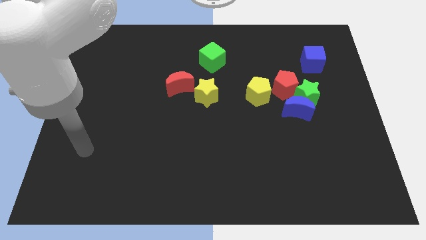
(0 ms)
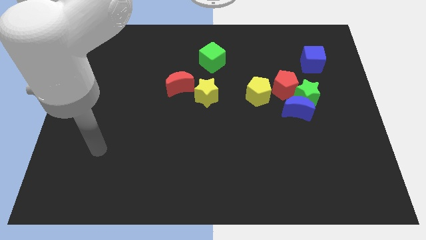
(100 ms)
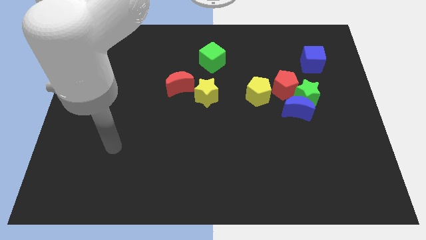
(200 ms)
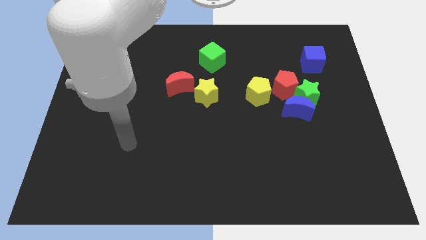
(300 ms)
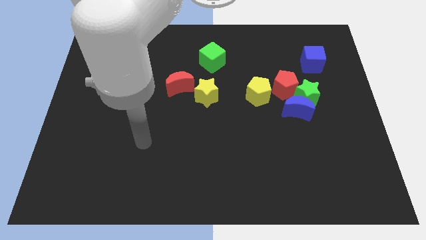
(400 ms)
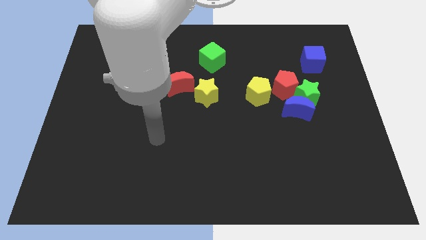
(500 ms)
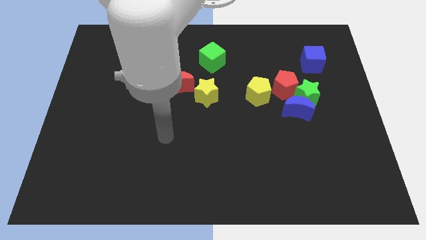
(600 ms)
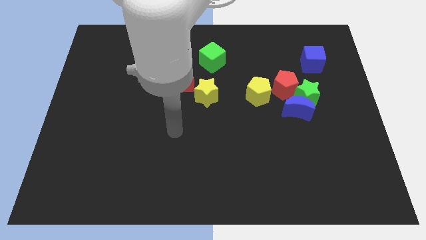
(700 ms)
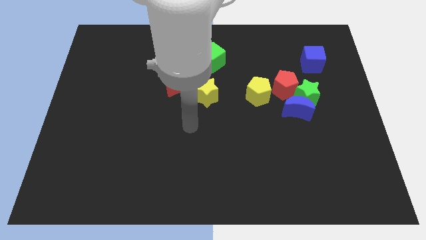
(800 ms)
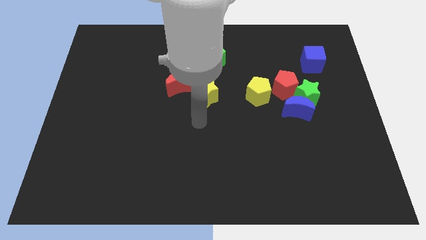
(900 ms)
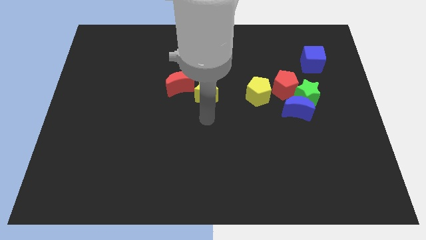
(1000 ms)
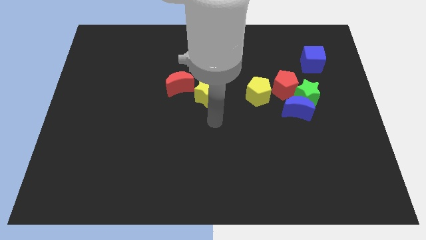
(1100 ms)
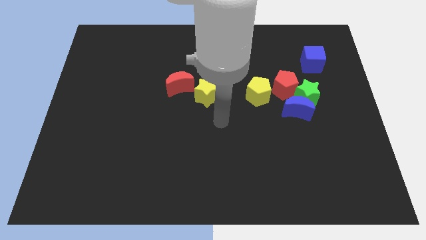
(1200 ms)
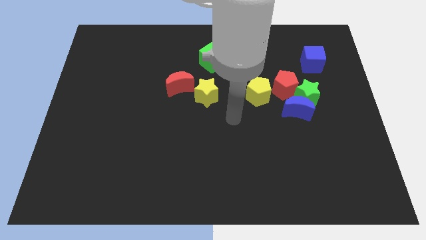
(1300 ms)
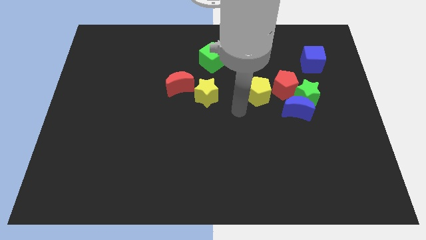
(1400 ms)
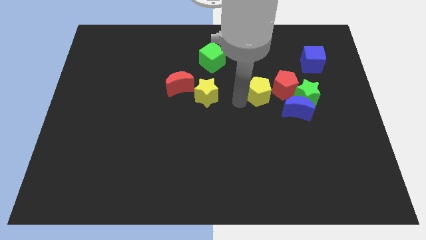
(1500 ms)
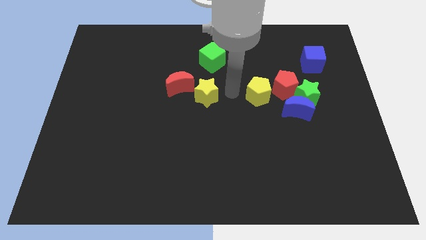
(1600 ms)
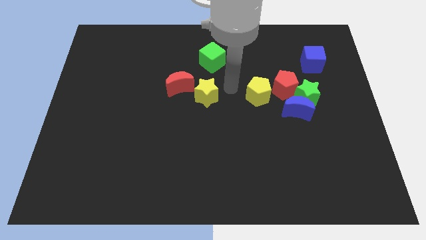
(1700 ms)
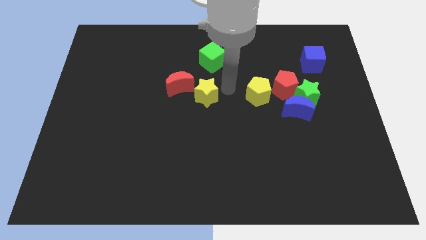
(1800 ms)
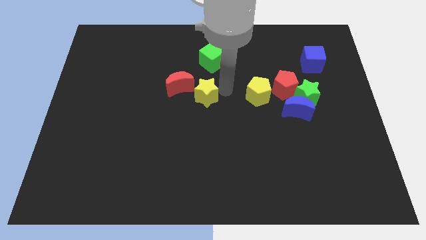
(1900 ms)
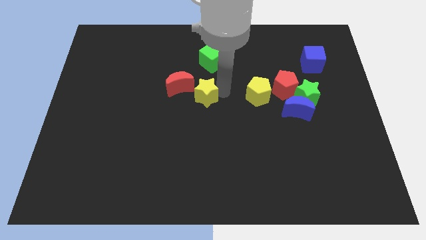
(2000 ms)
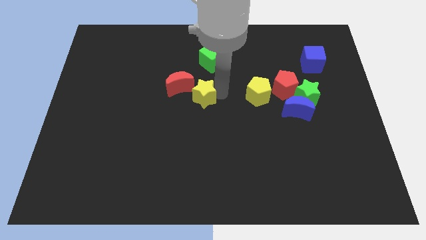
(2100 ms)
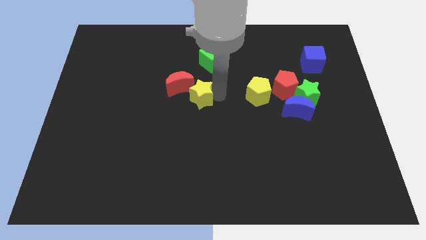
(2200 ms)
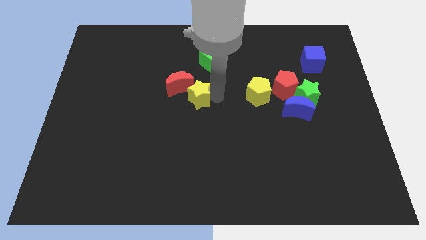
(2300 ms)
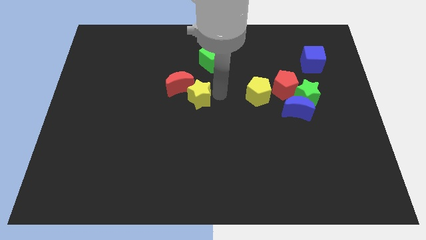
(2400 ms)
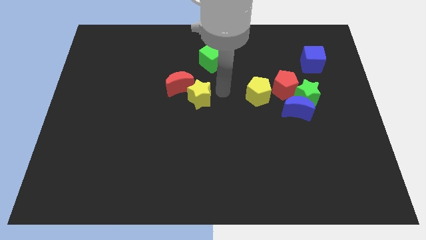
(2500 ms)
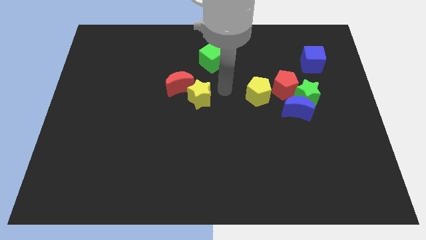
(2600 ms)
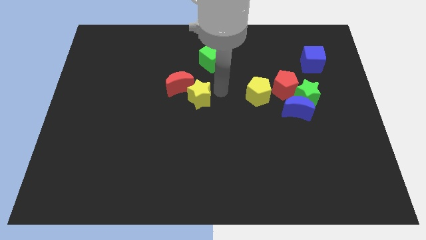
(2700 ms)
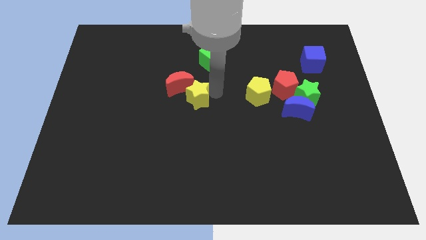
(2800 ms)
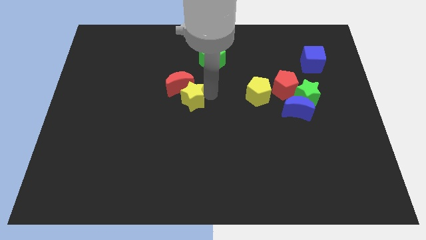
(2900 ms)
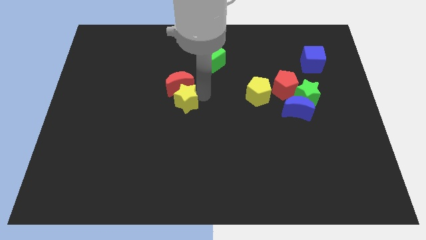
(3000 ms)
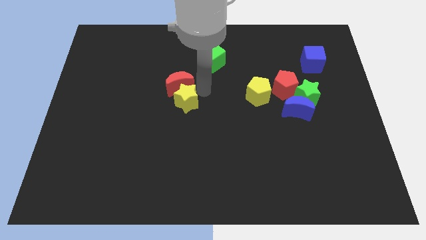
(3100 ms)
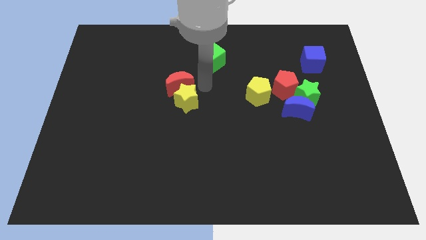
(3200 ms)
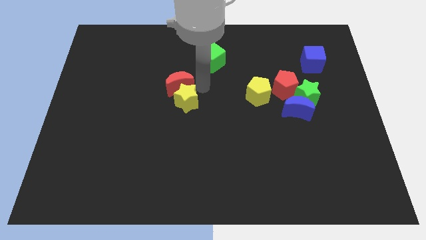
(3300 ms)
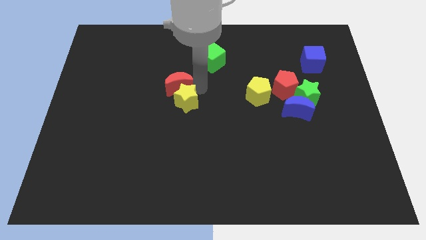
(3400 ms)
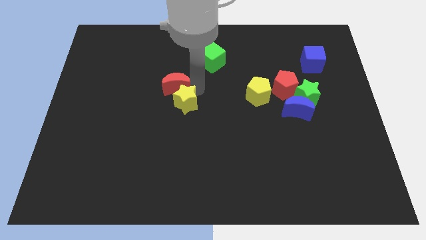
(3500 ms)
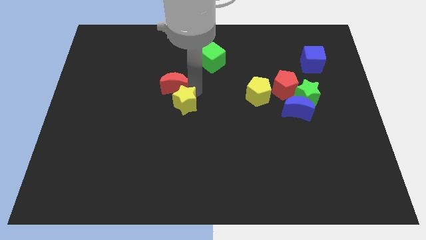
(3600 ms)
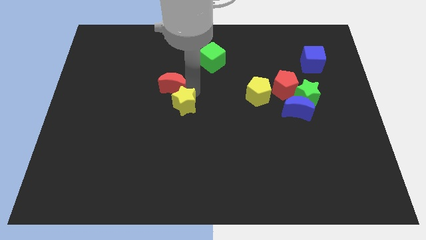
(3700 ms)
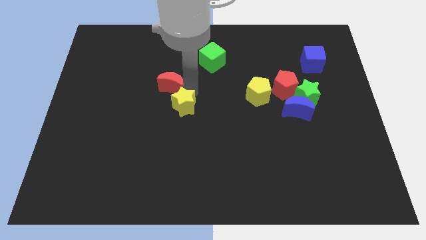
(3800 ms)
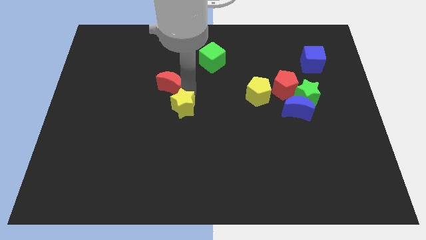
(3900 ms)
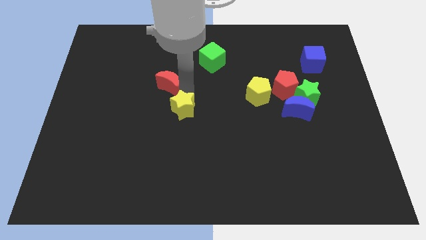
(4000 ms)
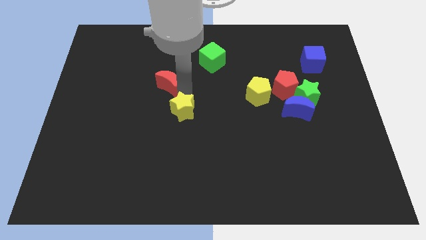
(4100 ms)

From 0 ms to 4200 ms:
slide the yellow star diagonally downwards and to the left a little bit

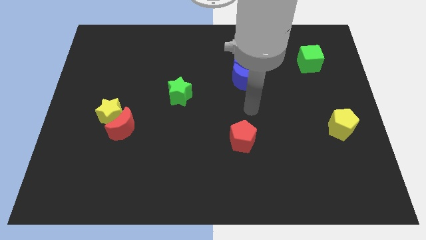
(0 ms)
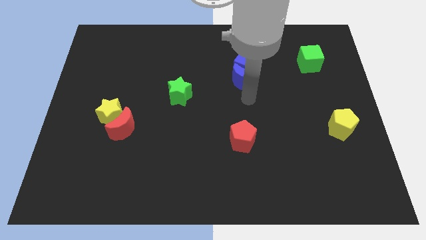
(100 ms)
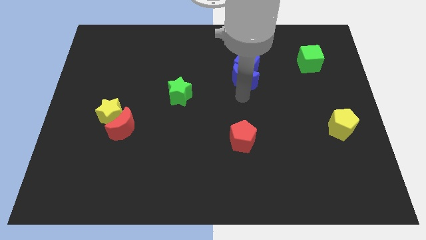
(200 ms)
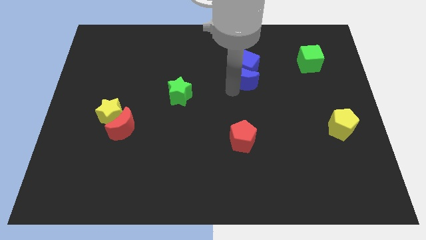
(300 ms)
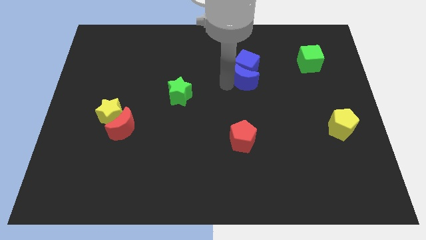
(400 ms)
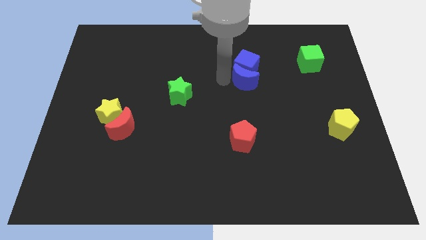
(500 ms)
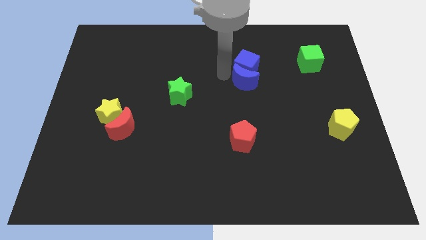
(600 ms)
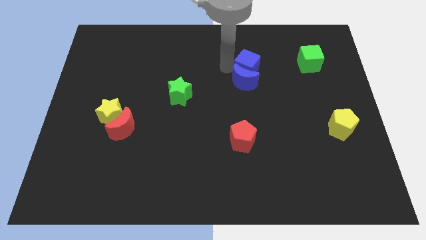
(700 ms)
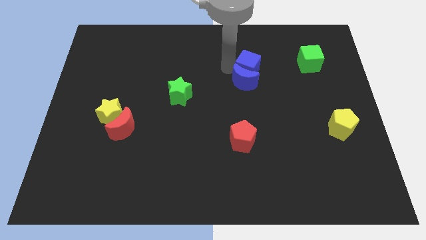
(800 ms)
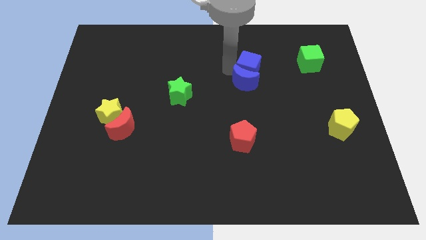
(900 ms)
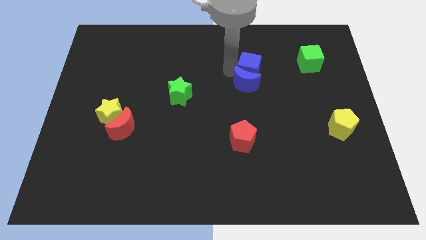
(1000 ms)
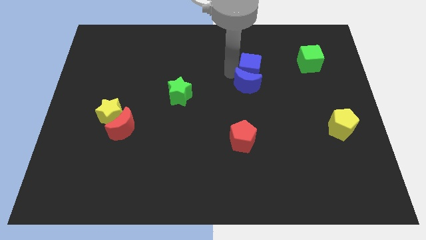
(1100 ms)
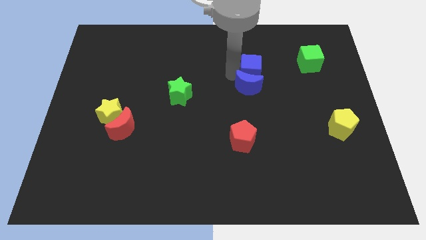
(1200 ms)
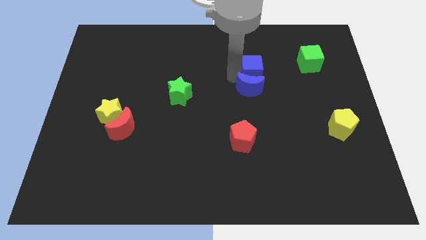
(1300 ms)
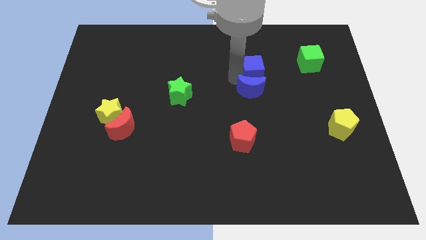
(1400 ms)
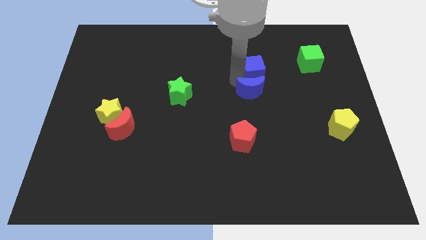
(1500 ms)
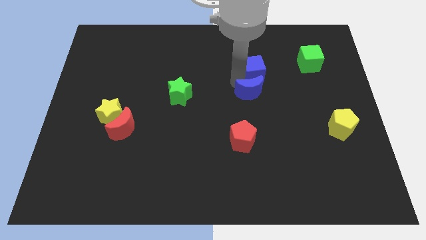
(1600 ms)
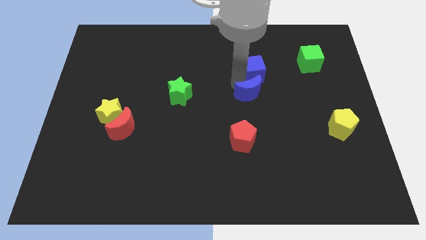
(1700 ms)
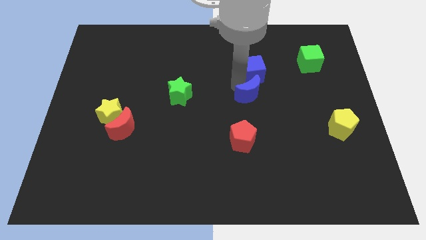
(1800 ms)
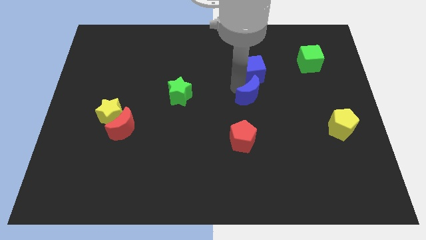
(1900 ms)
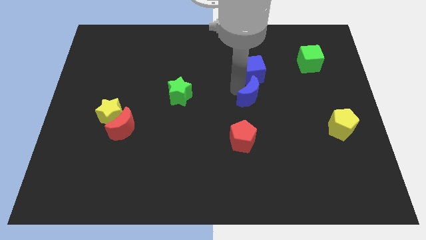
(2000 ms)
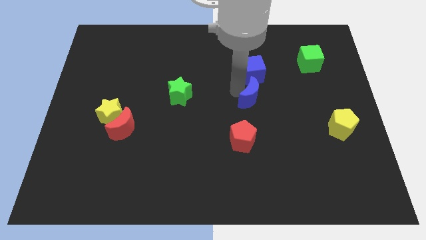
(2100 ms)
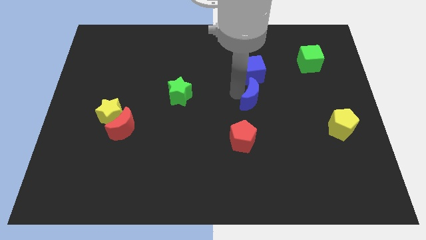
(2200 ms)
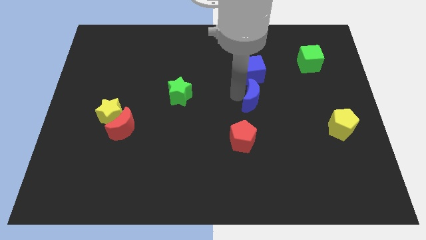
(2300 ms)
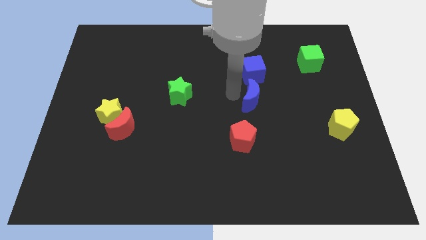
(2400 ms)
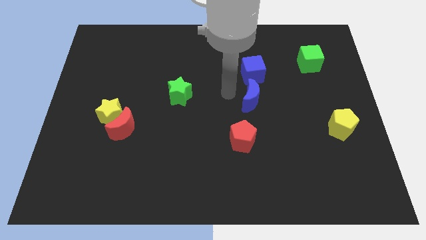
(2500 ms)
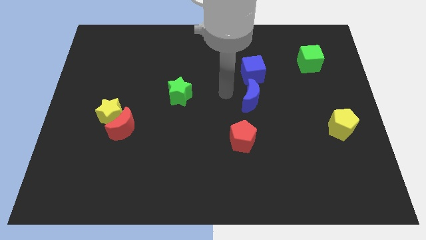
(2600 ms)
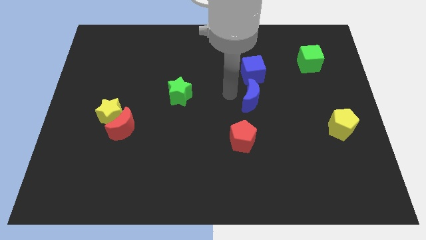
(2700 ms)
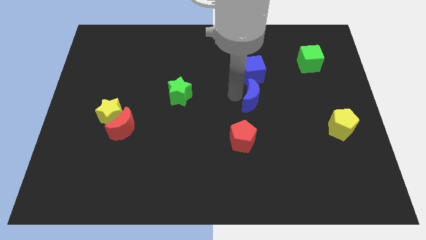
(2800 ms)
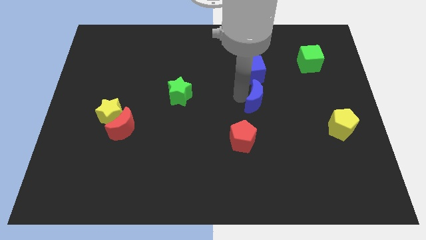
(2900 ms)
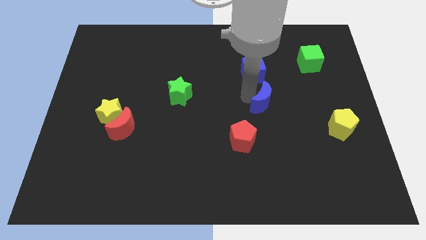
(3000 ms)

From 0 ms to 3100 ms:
slightly push the blue moon downwards and then right

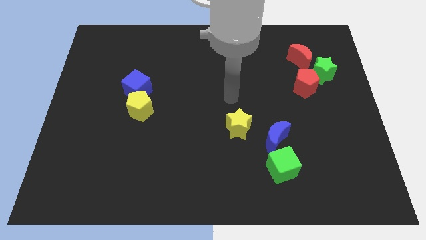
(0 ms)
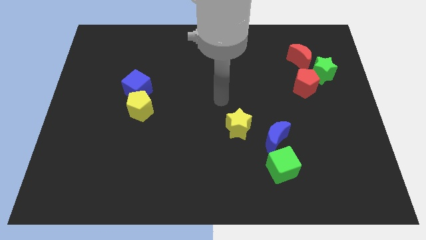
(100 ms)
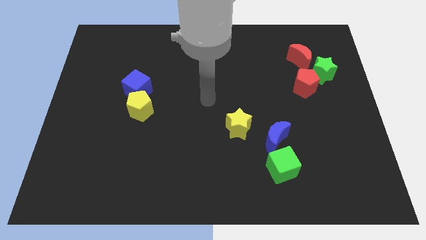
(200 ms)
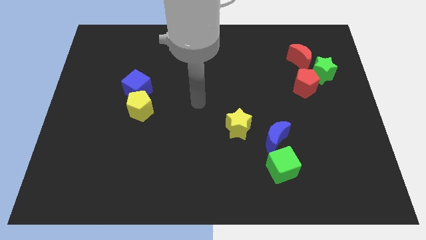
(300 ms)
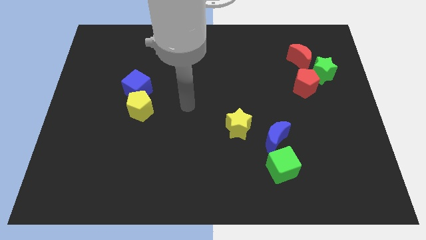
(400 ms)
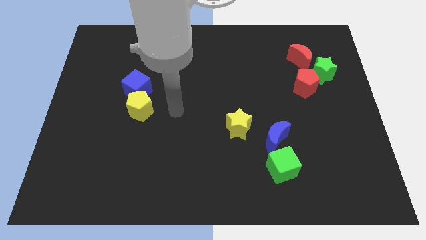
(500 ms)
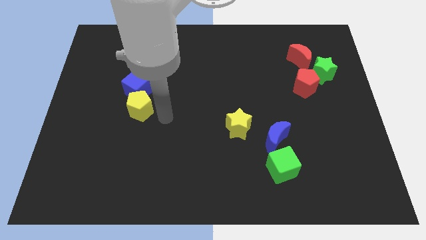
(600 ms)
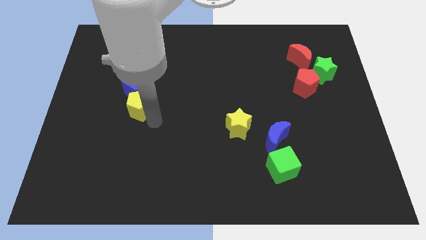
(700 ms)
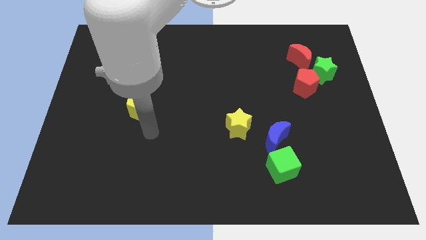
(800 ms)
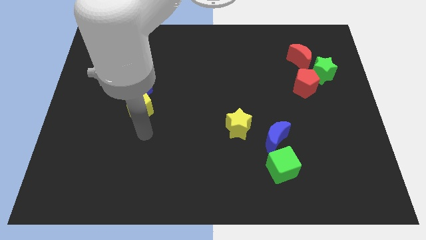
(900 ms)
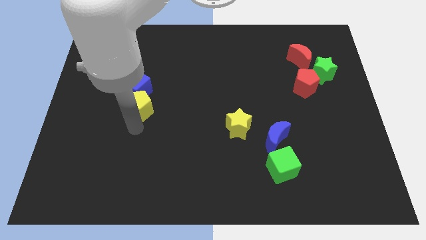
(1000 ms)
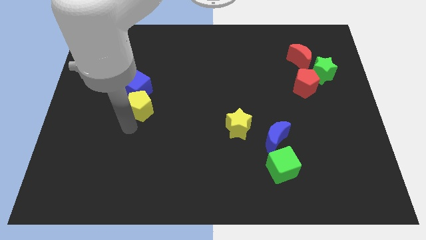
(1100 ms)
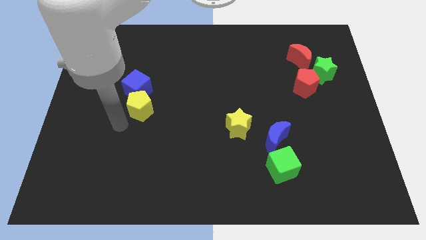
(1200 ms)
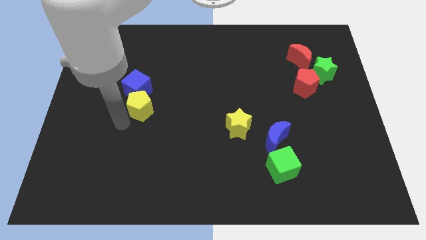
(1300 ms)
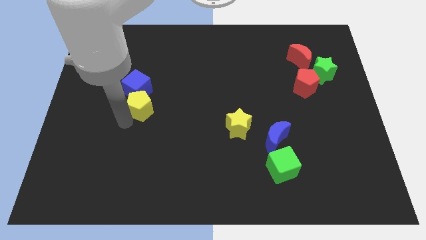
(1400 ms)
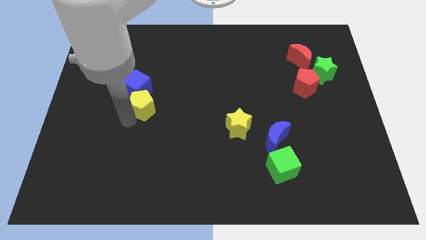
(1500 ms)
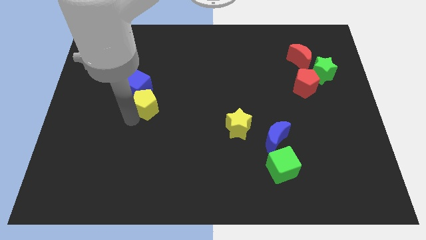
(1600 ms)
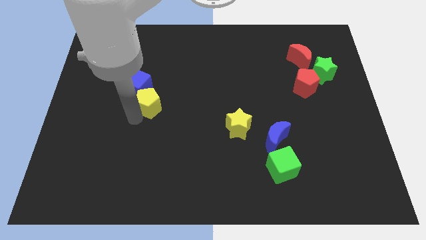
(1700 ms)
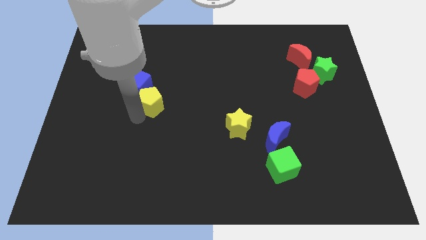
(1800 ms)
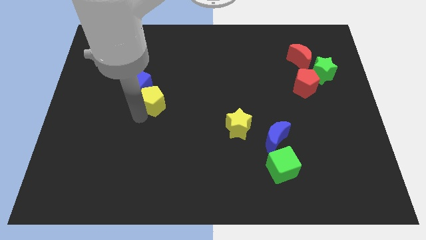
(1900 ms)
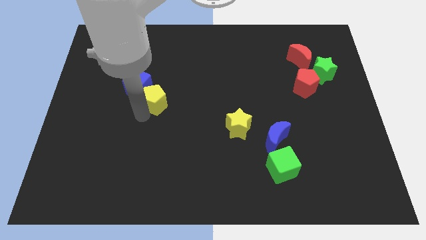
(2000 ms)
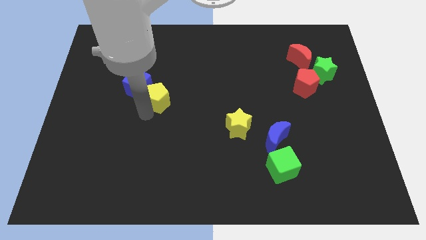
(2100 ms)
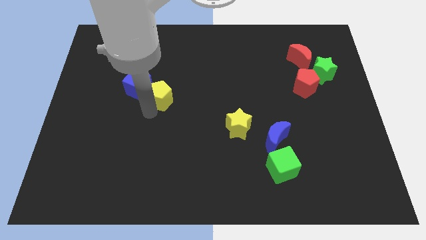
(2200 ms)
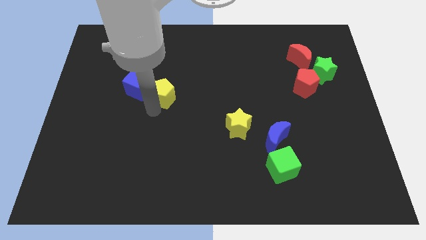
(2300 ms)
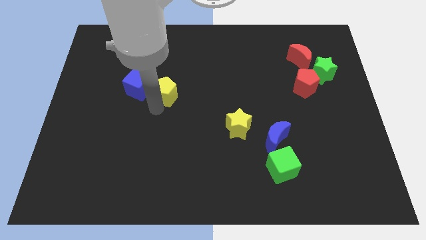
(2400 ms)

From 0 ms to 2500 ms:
push the yellow pentagon upwards and then right a little
